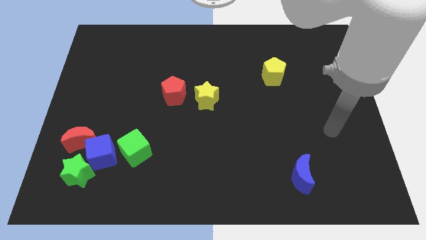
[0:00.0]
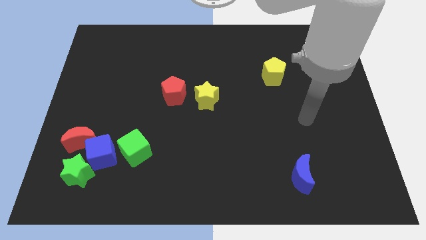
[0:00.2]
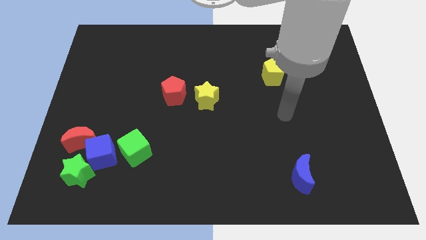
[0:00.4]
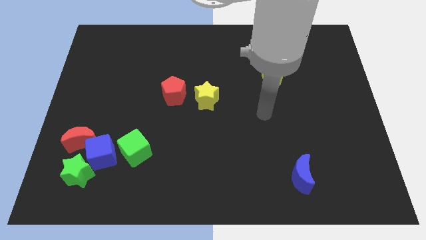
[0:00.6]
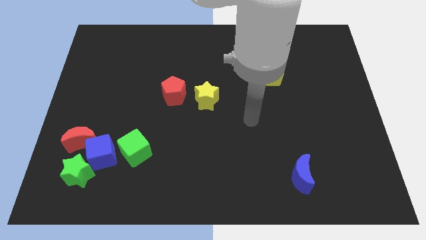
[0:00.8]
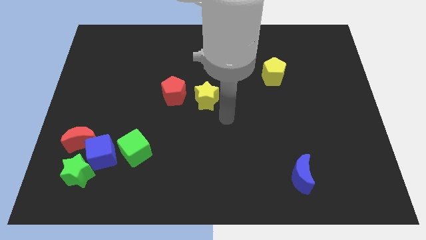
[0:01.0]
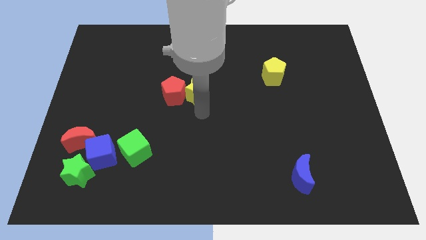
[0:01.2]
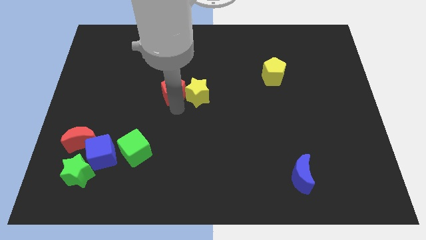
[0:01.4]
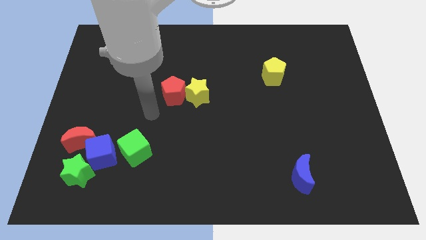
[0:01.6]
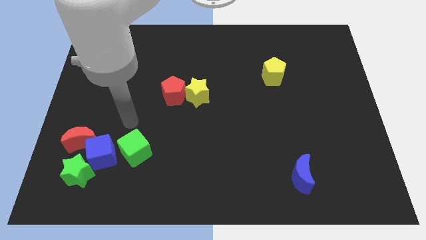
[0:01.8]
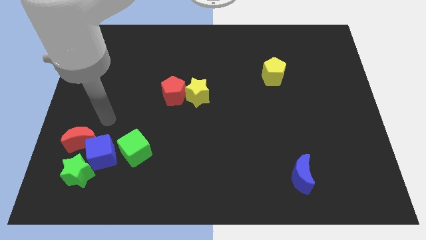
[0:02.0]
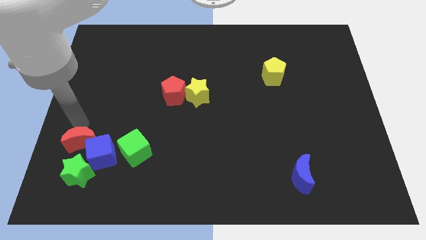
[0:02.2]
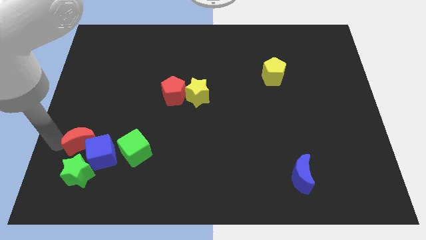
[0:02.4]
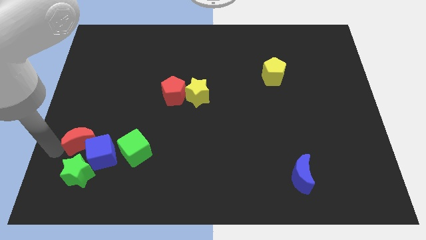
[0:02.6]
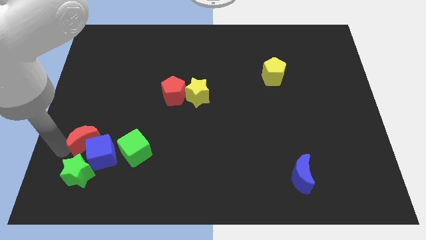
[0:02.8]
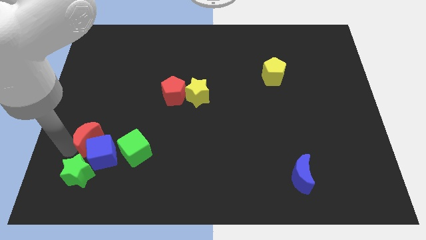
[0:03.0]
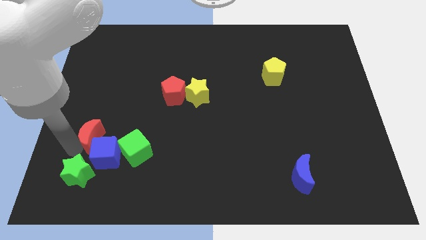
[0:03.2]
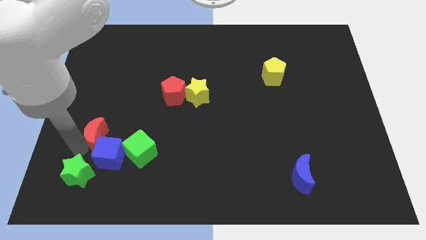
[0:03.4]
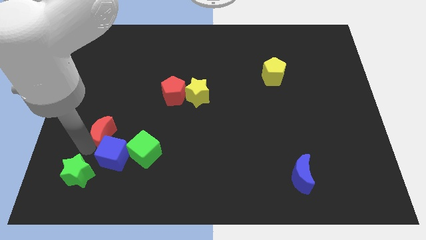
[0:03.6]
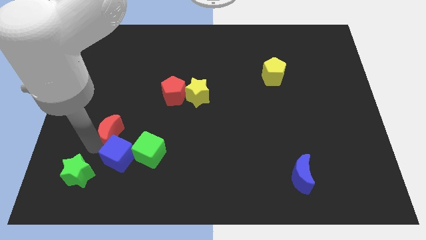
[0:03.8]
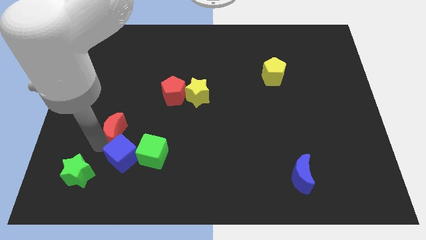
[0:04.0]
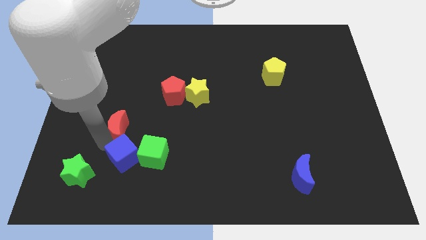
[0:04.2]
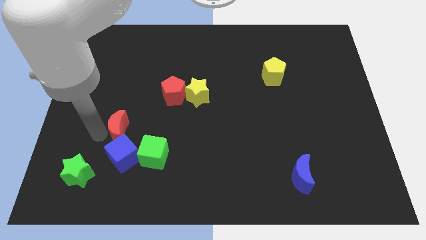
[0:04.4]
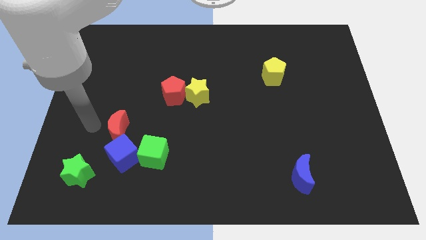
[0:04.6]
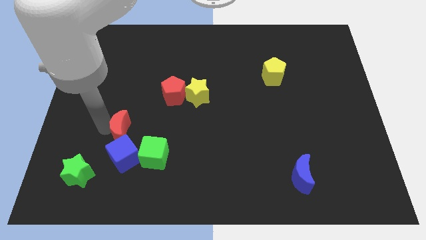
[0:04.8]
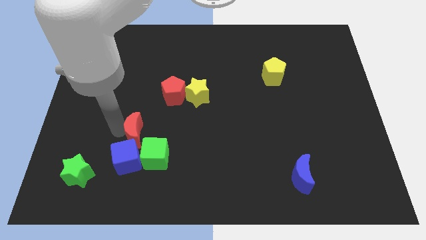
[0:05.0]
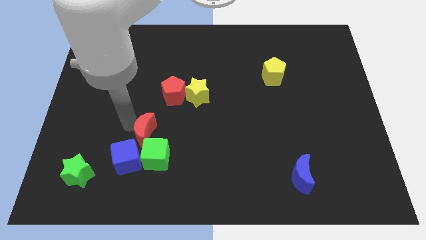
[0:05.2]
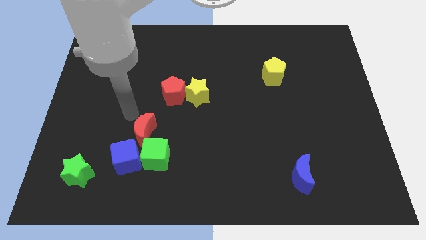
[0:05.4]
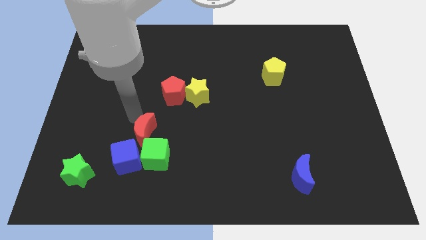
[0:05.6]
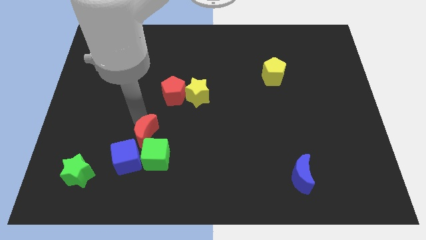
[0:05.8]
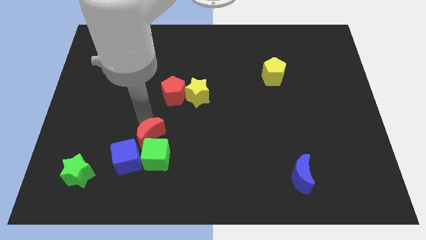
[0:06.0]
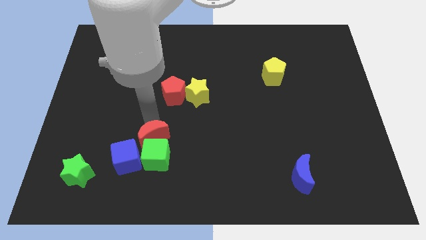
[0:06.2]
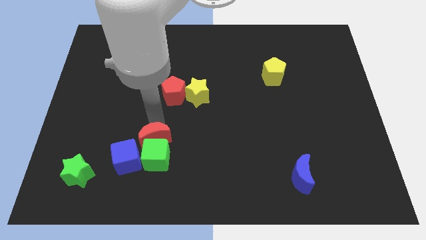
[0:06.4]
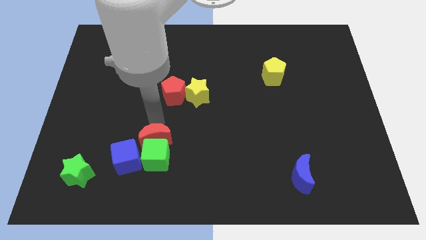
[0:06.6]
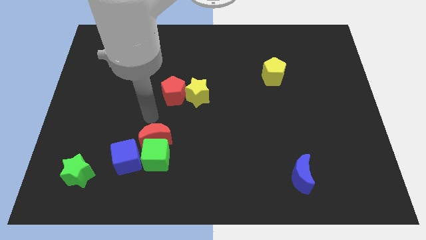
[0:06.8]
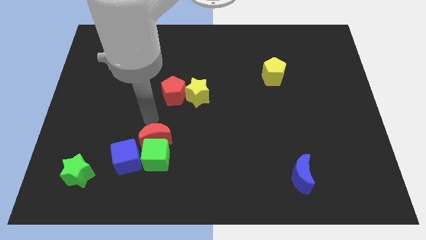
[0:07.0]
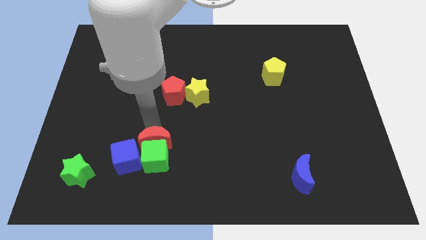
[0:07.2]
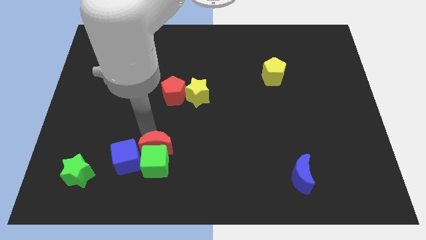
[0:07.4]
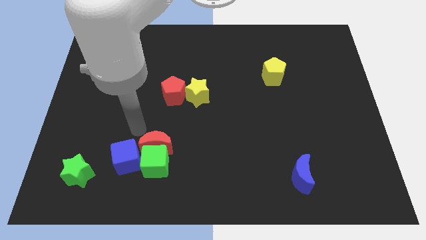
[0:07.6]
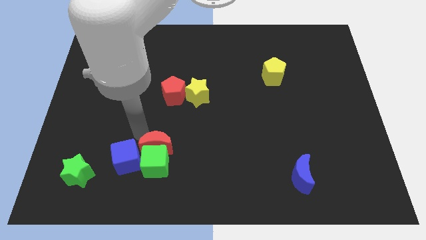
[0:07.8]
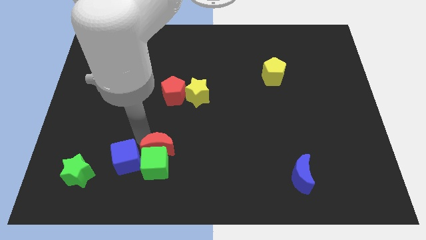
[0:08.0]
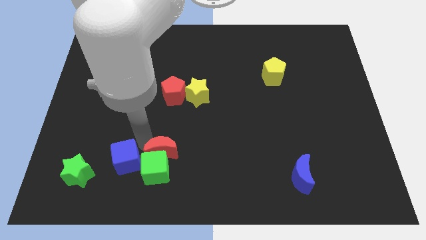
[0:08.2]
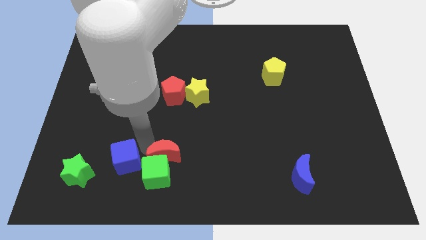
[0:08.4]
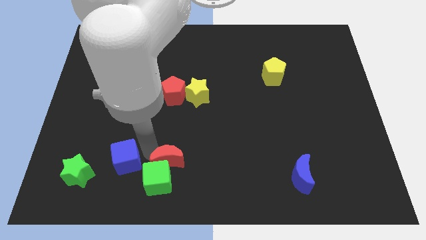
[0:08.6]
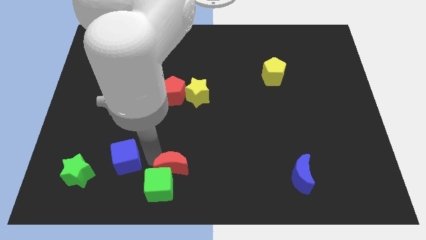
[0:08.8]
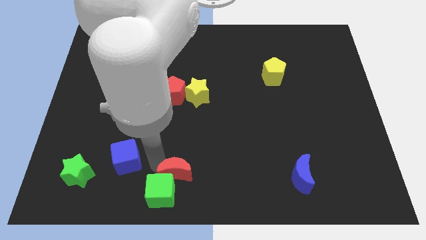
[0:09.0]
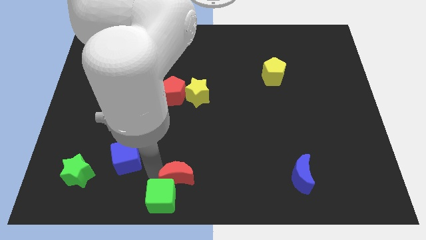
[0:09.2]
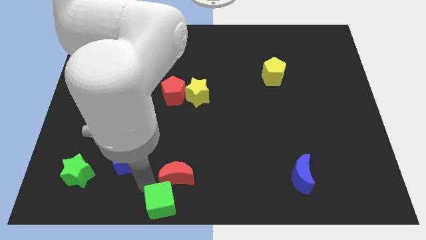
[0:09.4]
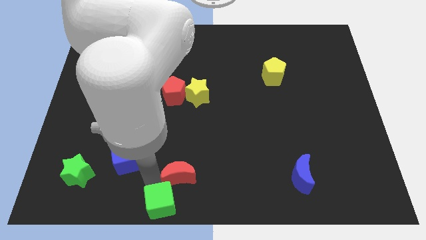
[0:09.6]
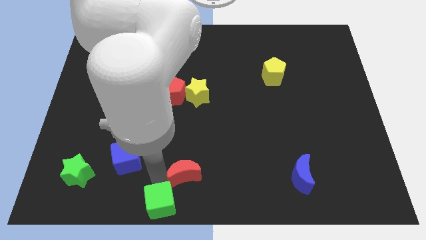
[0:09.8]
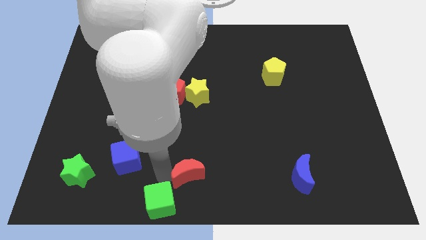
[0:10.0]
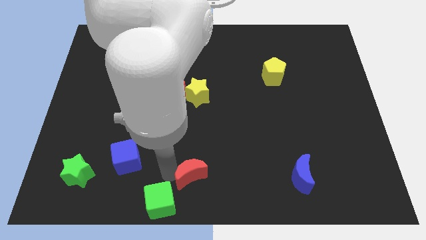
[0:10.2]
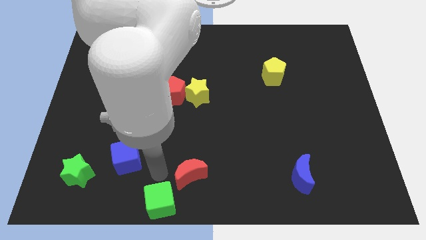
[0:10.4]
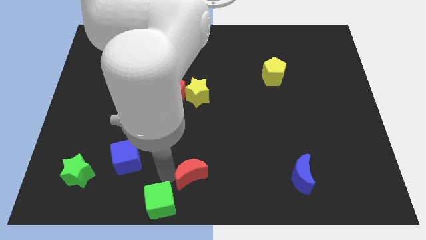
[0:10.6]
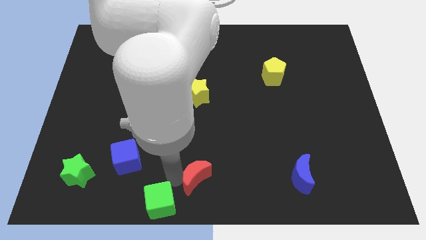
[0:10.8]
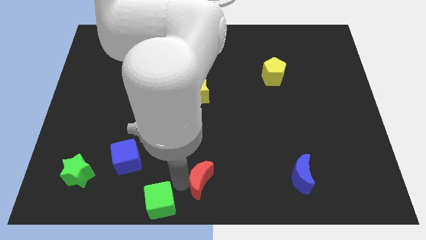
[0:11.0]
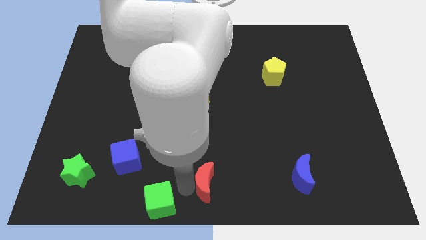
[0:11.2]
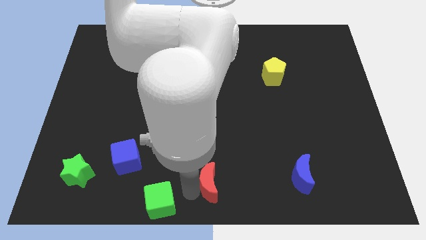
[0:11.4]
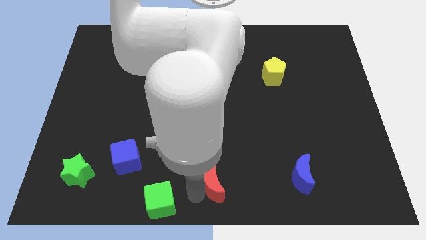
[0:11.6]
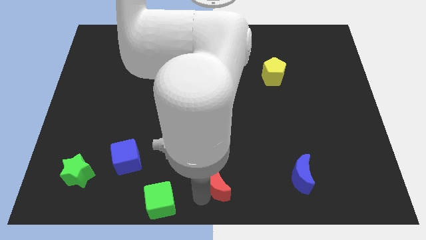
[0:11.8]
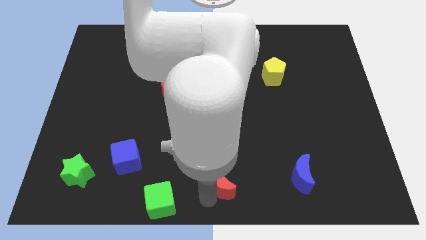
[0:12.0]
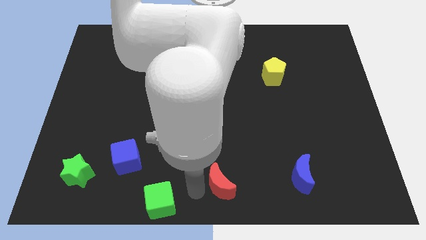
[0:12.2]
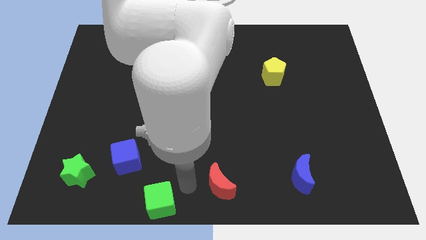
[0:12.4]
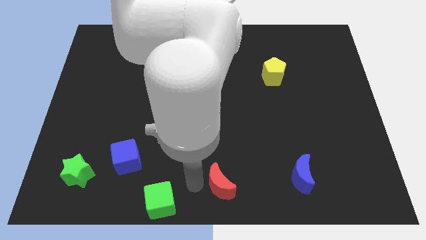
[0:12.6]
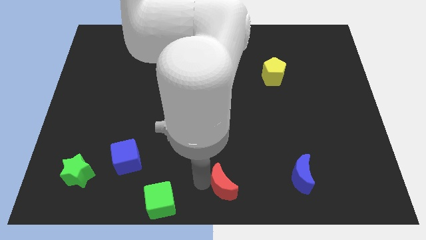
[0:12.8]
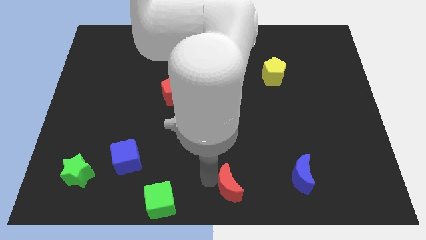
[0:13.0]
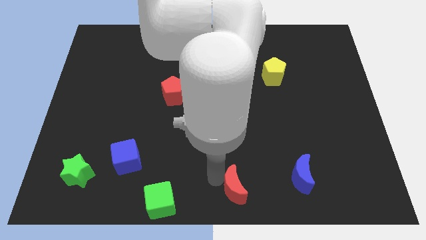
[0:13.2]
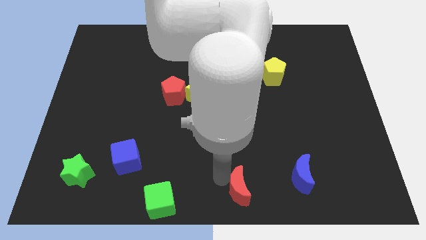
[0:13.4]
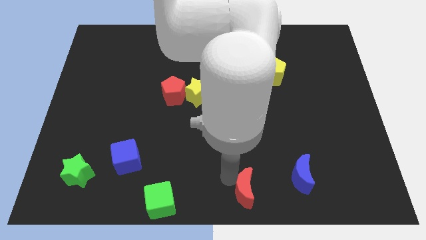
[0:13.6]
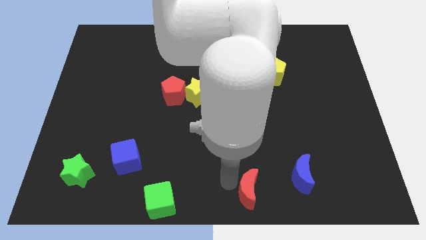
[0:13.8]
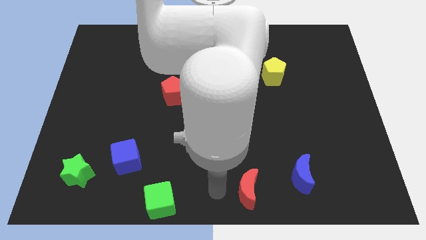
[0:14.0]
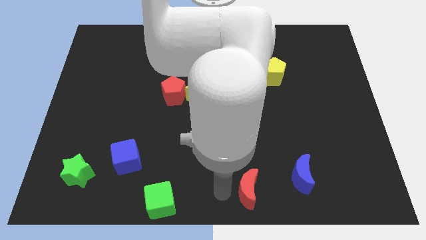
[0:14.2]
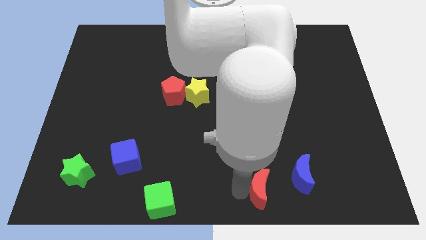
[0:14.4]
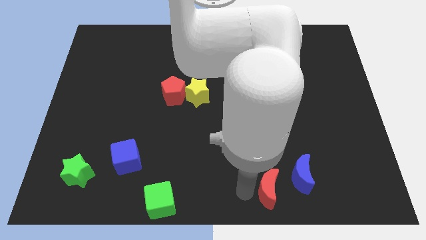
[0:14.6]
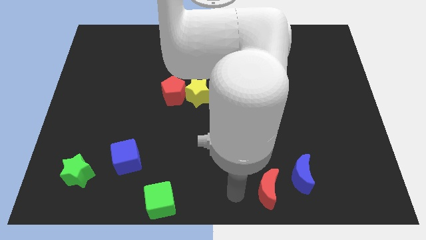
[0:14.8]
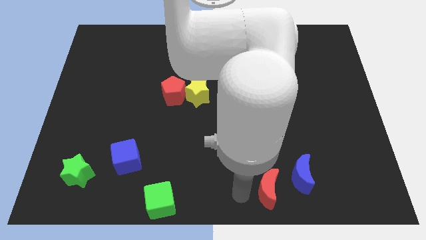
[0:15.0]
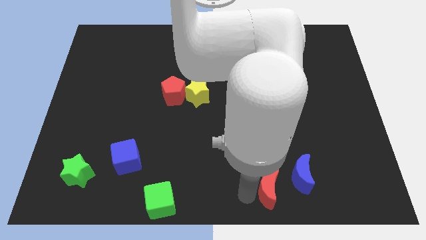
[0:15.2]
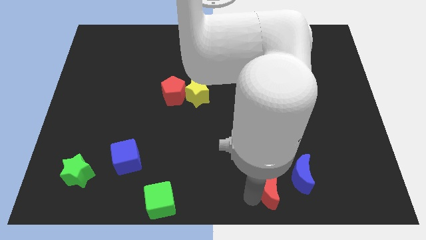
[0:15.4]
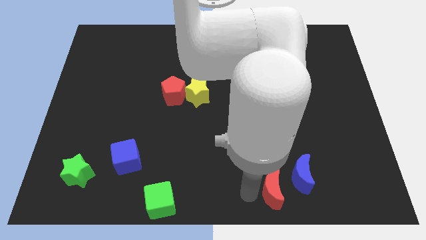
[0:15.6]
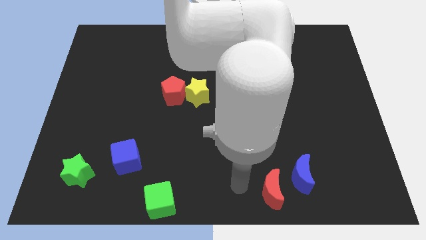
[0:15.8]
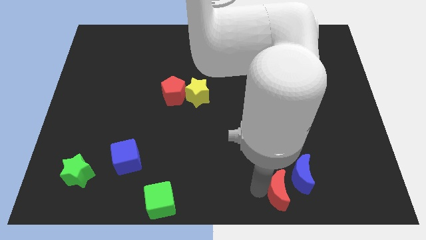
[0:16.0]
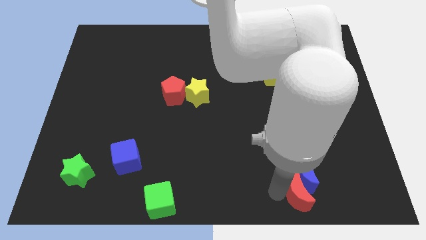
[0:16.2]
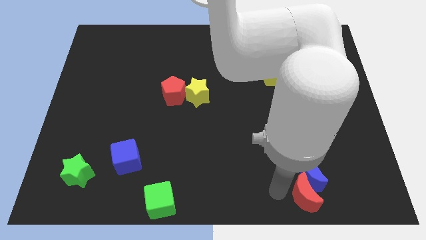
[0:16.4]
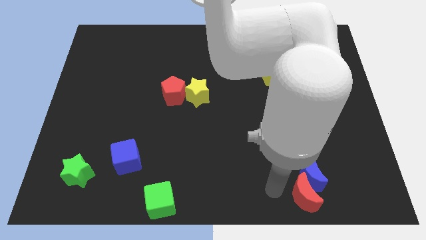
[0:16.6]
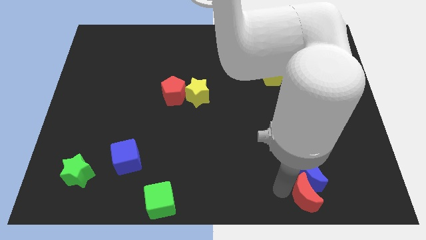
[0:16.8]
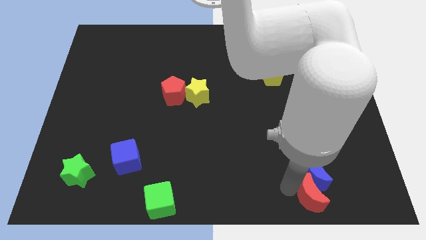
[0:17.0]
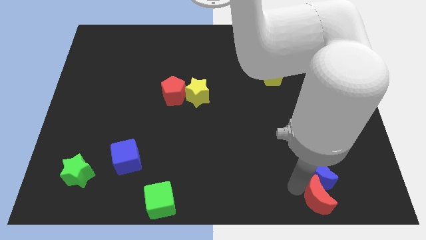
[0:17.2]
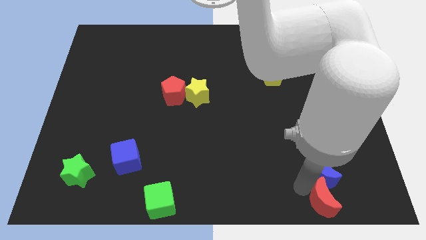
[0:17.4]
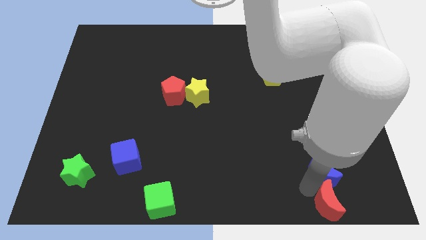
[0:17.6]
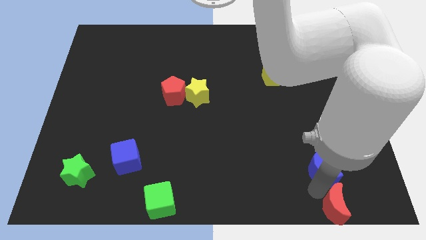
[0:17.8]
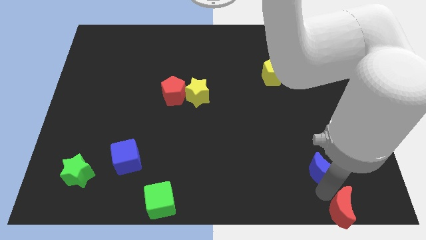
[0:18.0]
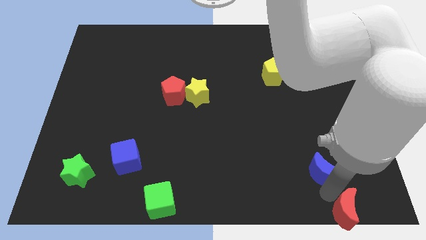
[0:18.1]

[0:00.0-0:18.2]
put the red moon to the bottom right of the board
